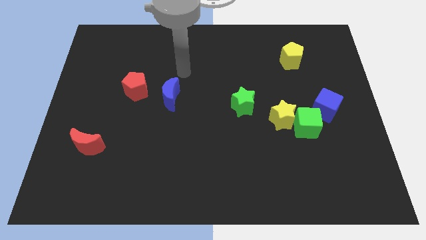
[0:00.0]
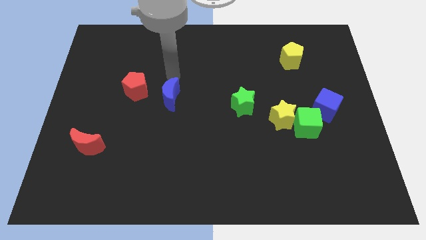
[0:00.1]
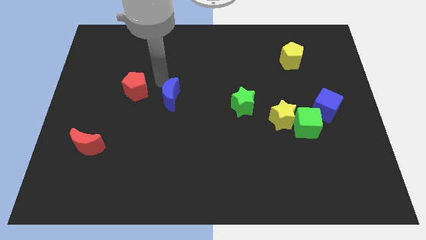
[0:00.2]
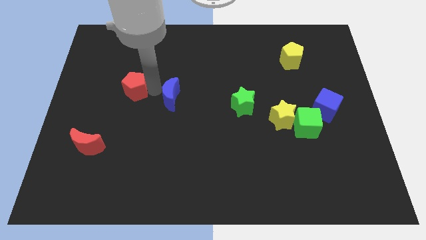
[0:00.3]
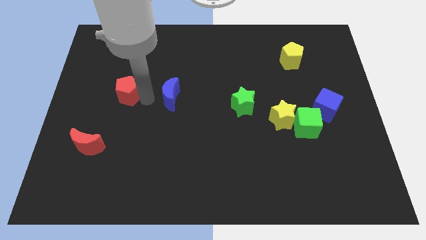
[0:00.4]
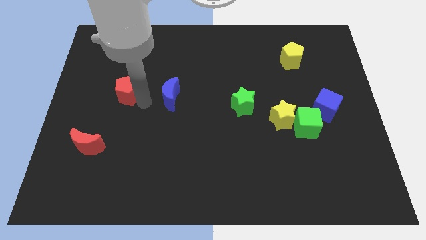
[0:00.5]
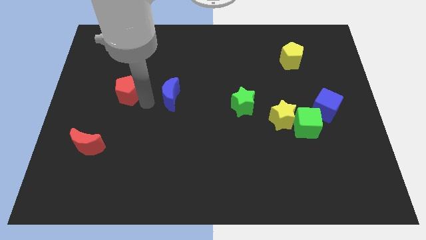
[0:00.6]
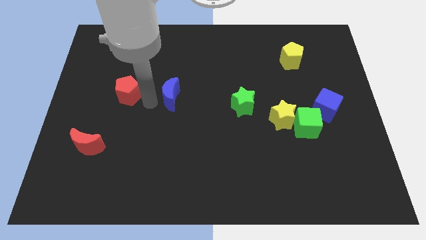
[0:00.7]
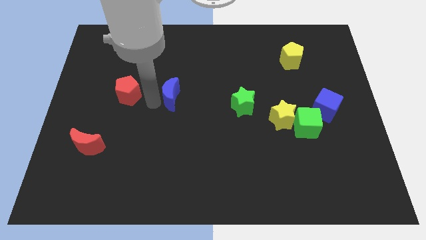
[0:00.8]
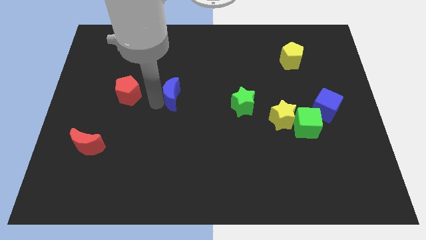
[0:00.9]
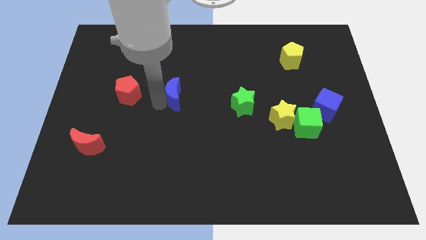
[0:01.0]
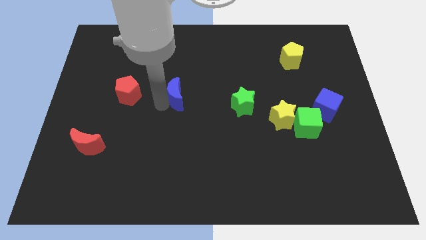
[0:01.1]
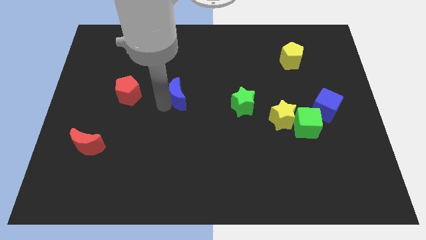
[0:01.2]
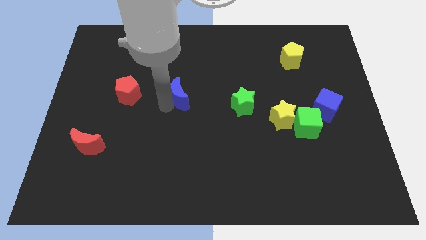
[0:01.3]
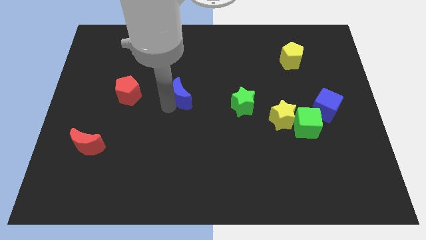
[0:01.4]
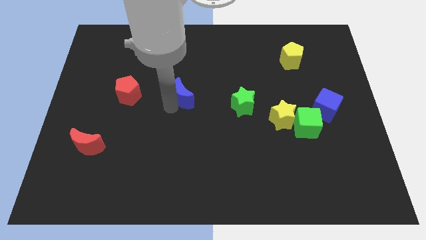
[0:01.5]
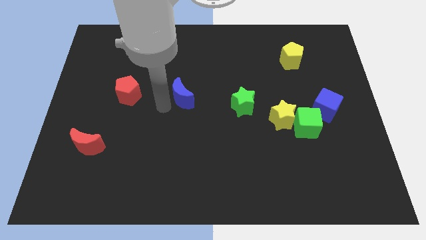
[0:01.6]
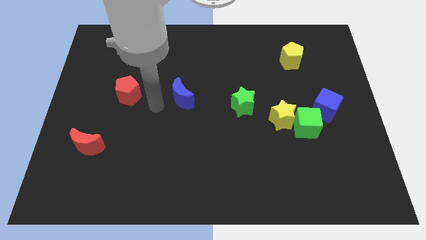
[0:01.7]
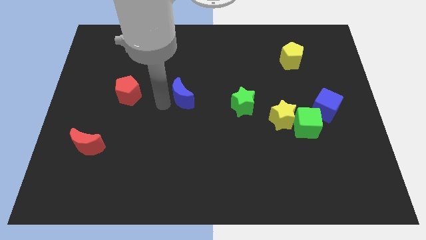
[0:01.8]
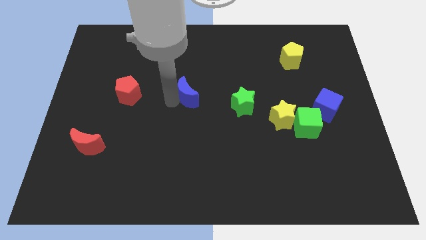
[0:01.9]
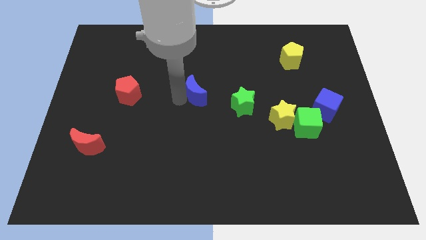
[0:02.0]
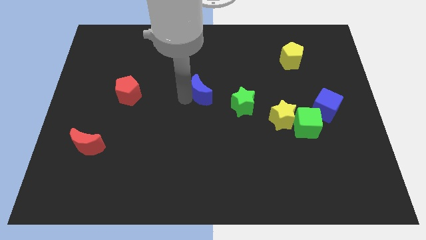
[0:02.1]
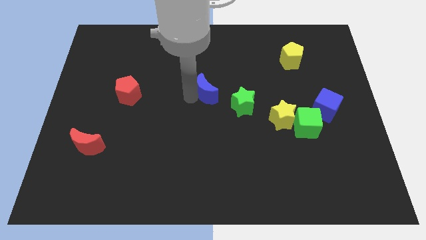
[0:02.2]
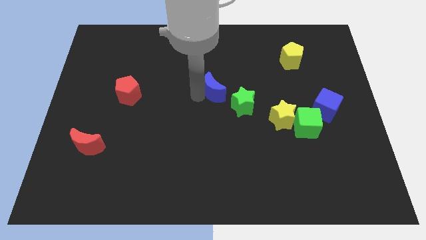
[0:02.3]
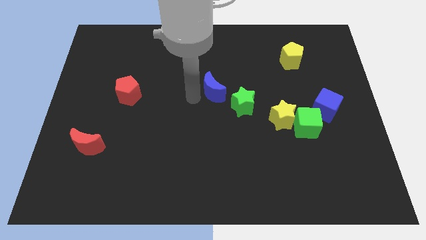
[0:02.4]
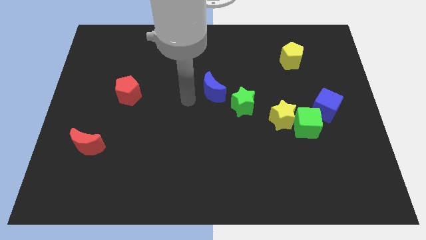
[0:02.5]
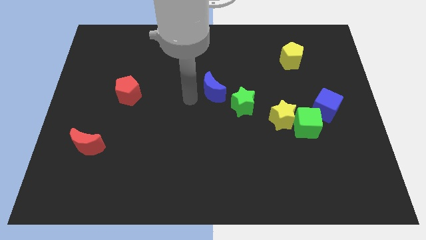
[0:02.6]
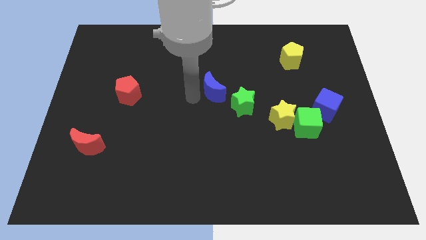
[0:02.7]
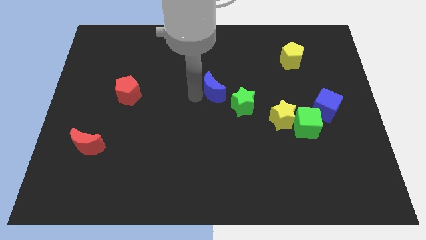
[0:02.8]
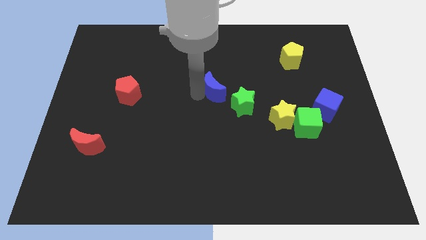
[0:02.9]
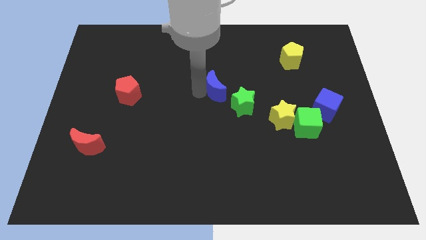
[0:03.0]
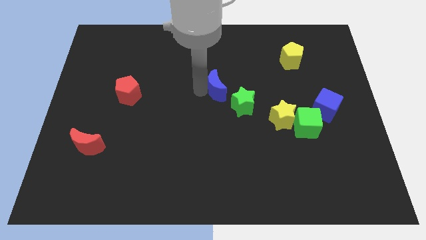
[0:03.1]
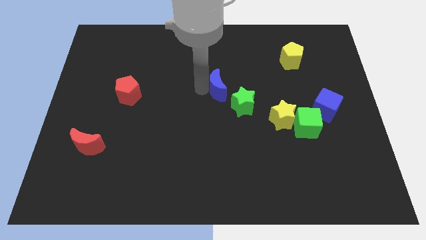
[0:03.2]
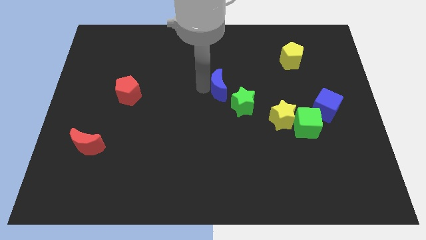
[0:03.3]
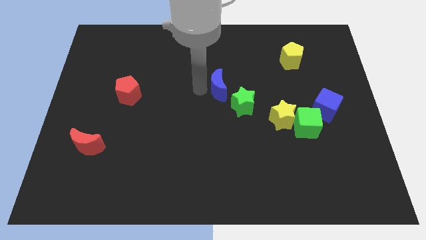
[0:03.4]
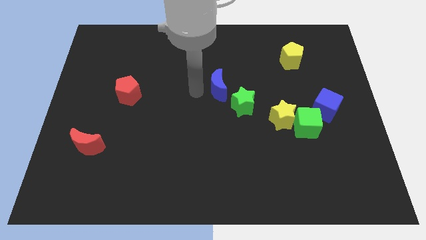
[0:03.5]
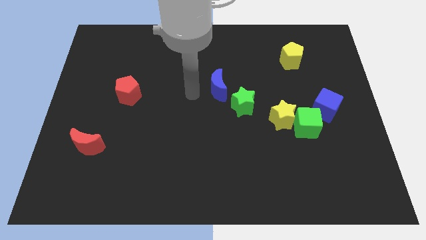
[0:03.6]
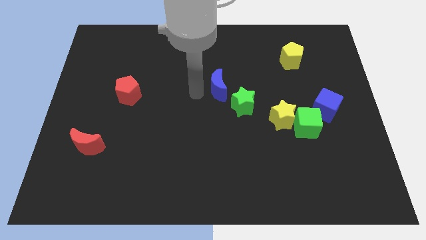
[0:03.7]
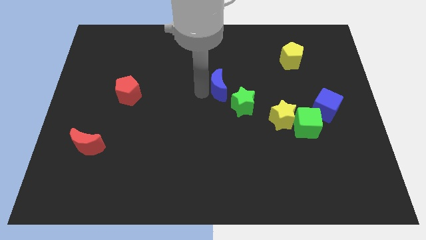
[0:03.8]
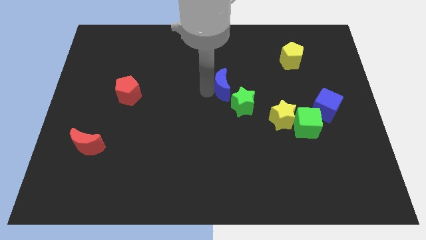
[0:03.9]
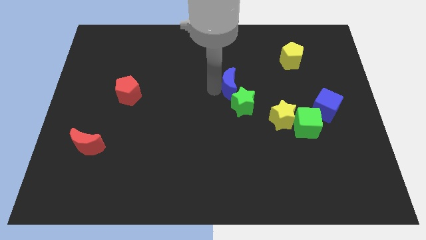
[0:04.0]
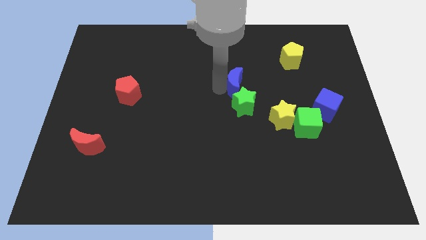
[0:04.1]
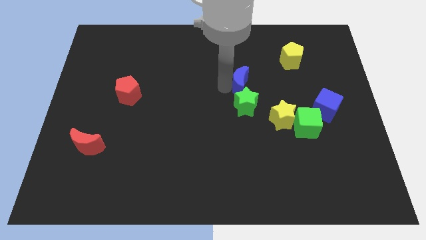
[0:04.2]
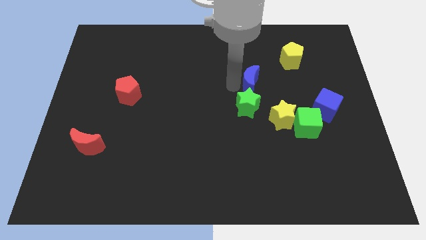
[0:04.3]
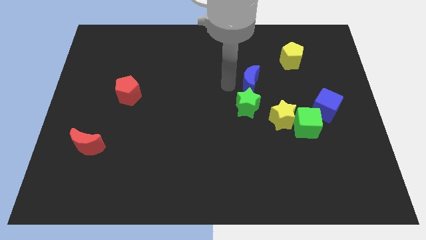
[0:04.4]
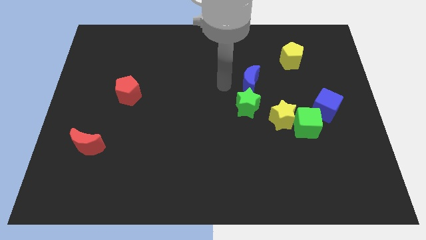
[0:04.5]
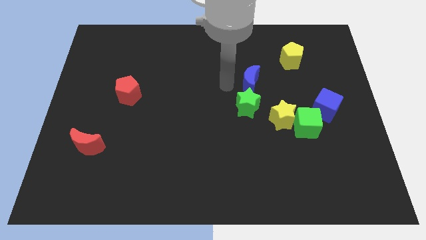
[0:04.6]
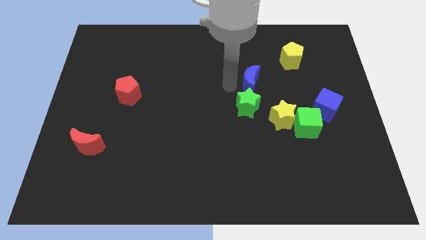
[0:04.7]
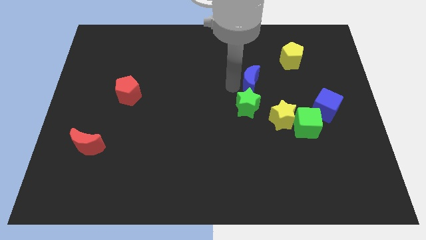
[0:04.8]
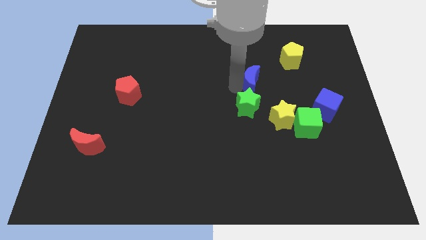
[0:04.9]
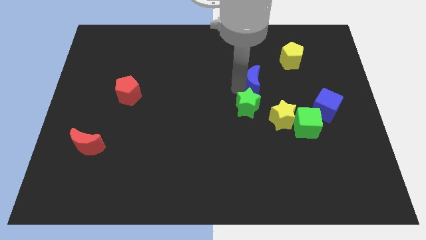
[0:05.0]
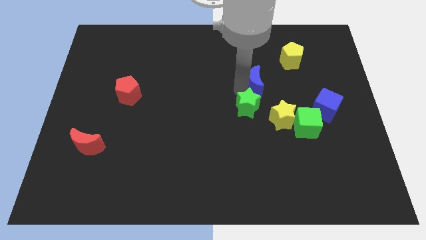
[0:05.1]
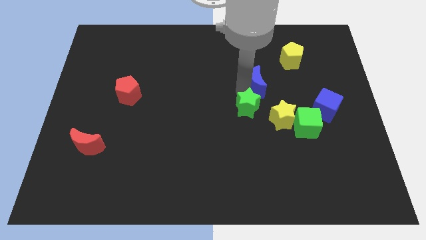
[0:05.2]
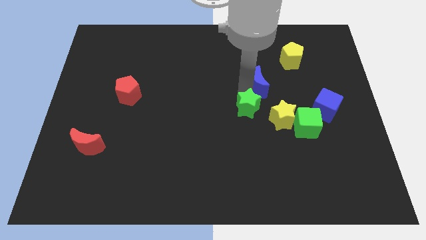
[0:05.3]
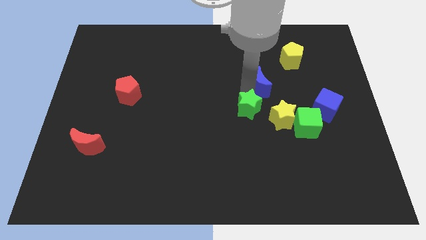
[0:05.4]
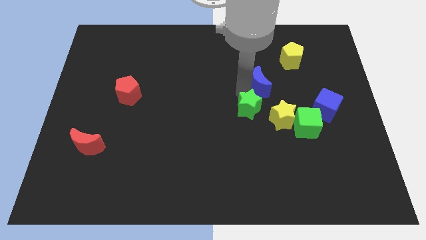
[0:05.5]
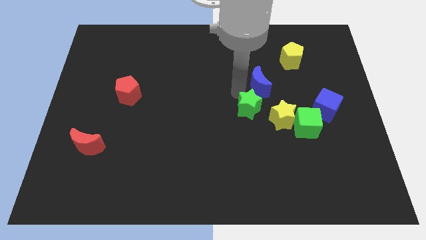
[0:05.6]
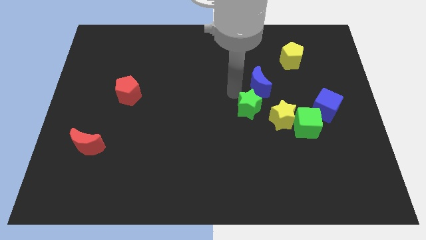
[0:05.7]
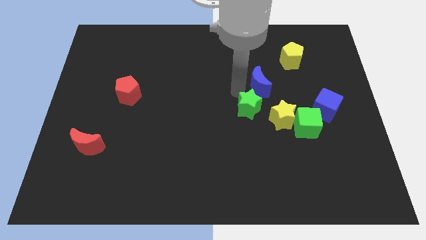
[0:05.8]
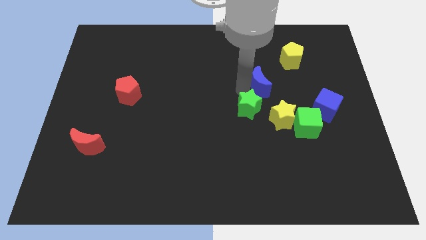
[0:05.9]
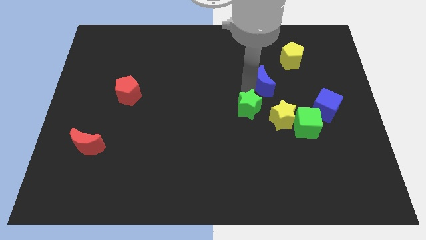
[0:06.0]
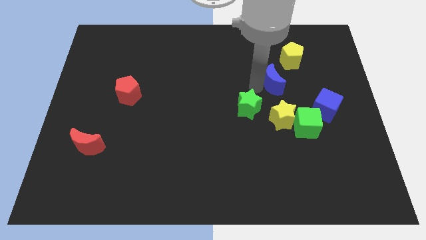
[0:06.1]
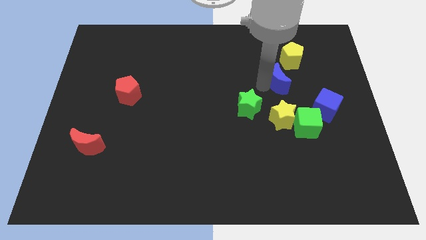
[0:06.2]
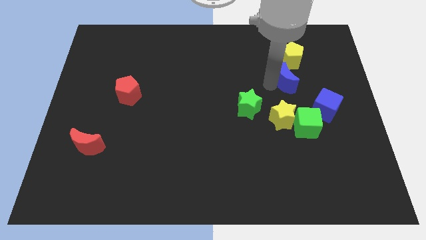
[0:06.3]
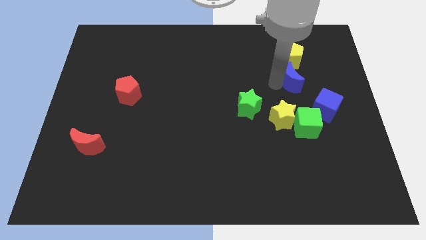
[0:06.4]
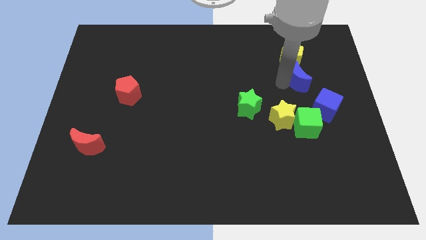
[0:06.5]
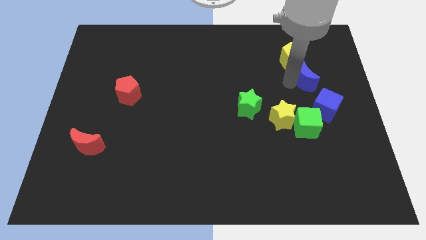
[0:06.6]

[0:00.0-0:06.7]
put the blue moon above the blue cube

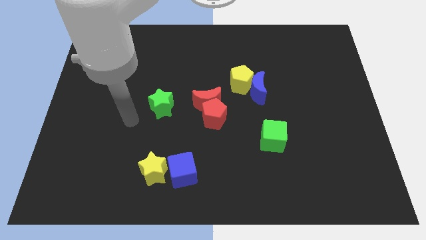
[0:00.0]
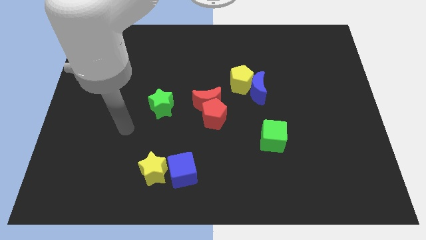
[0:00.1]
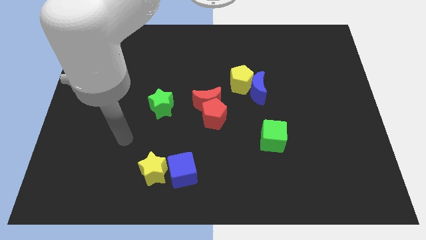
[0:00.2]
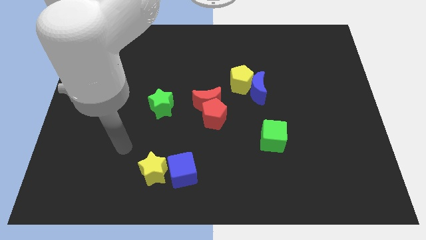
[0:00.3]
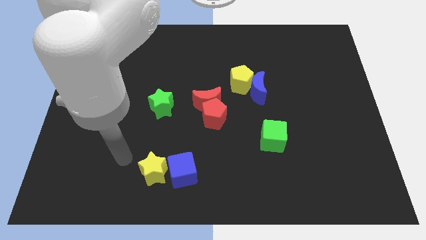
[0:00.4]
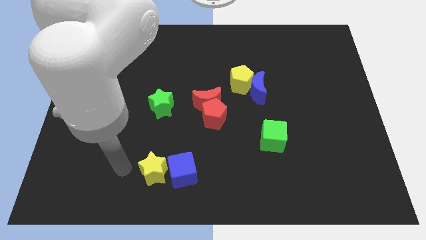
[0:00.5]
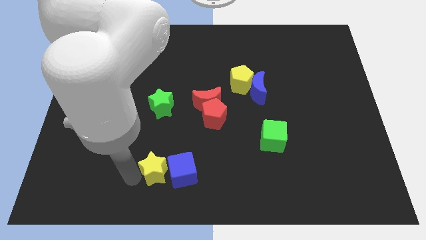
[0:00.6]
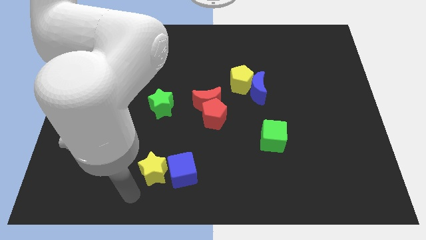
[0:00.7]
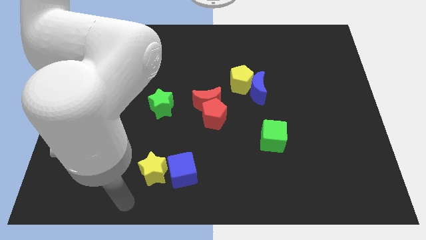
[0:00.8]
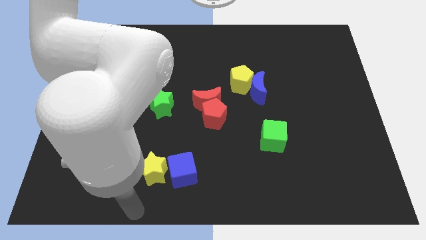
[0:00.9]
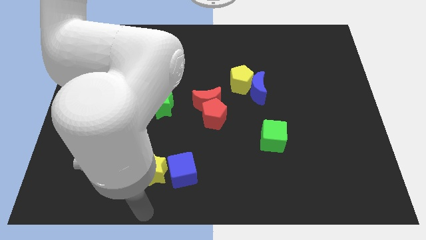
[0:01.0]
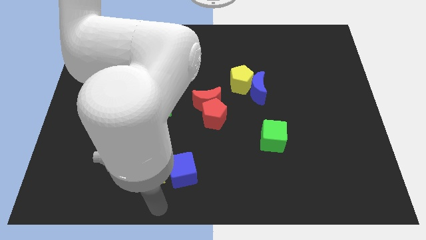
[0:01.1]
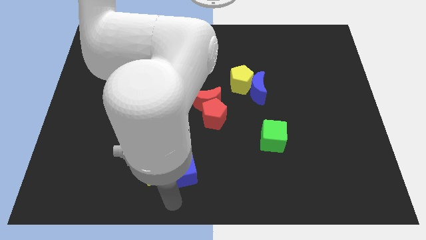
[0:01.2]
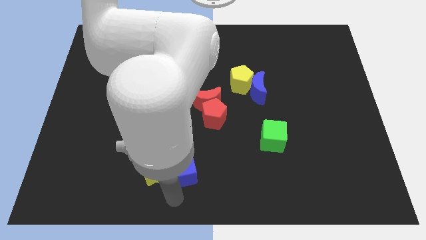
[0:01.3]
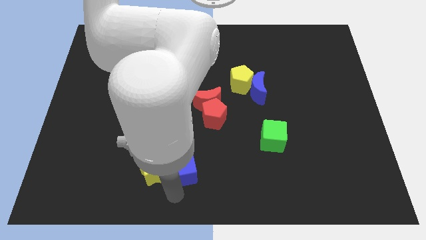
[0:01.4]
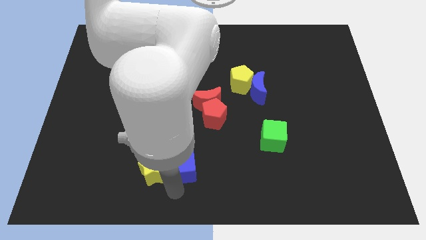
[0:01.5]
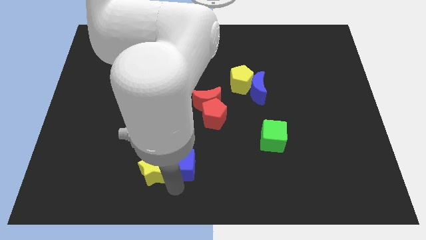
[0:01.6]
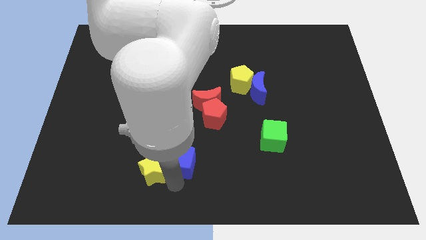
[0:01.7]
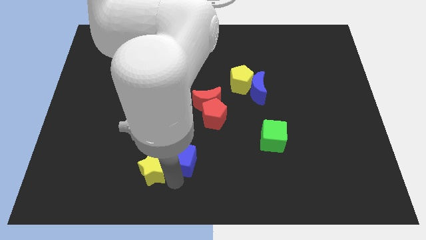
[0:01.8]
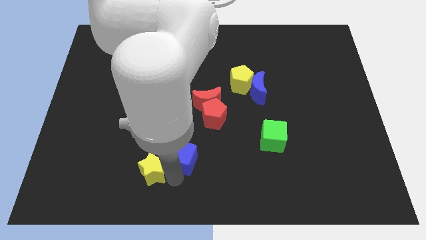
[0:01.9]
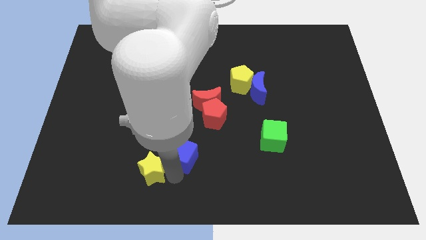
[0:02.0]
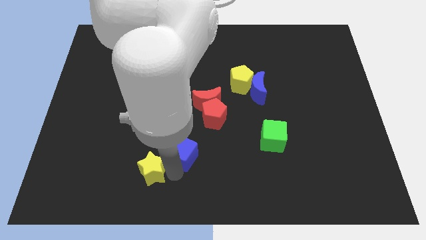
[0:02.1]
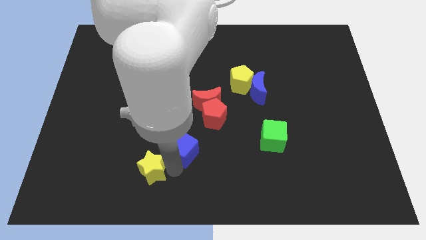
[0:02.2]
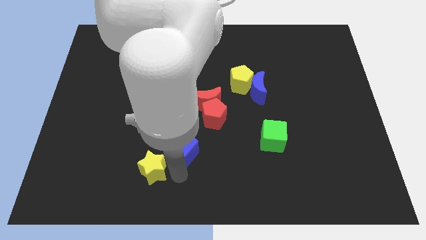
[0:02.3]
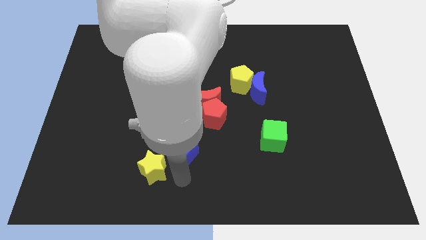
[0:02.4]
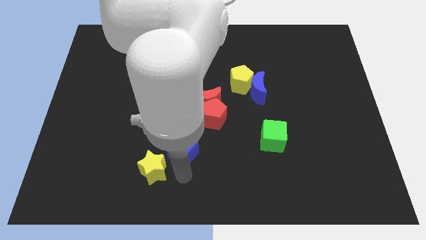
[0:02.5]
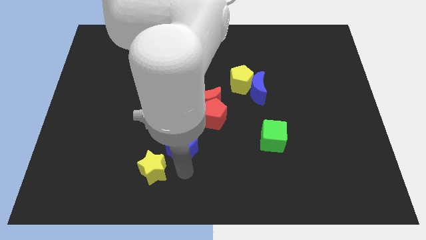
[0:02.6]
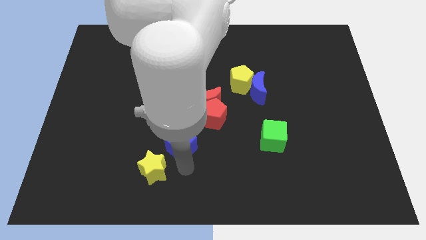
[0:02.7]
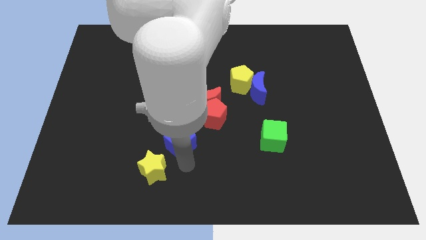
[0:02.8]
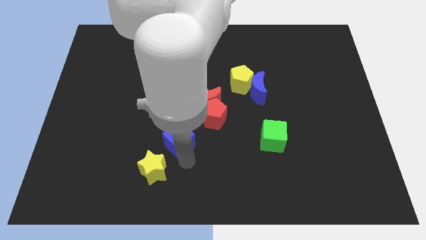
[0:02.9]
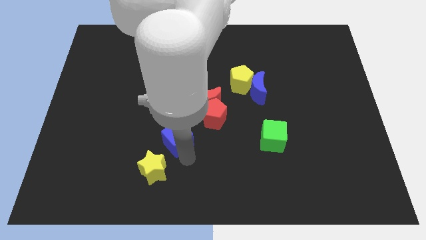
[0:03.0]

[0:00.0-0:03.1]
put the blue cube to the bottom left side of the red moon
